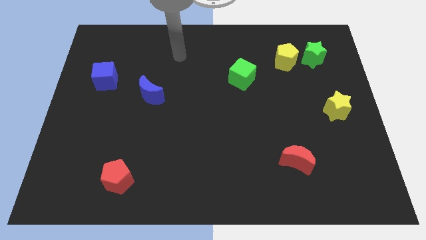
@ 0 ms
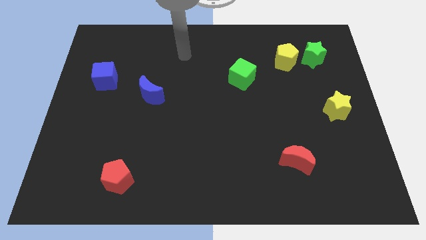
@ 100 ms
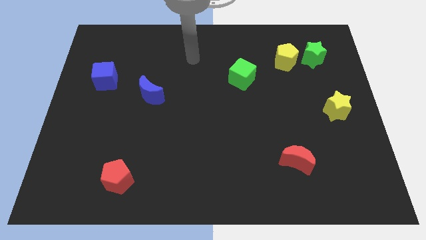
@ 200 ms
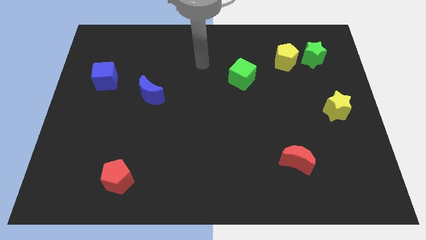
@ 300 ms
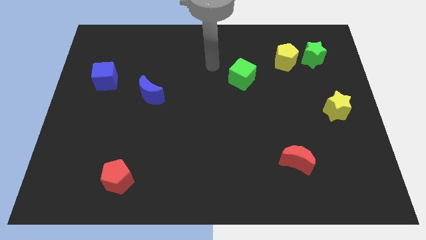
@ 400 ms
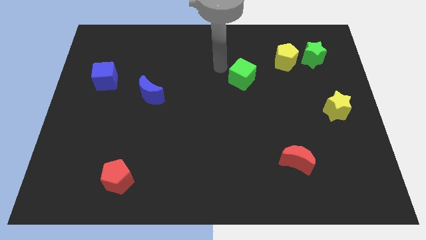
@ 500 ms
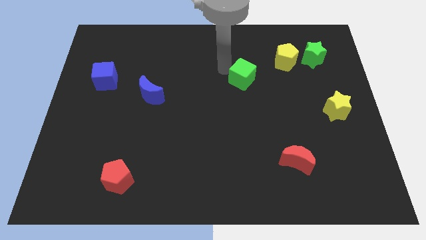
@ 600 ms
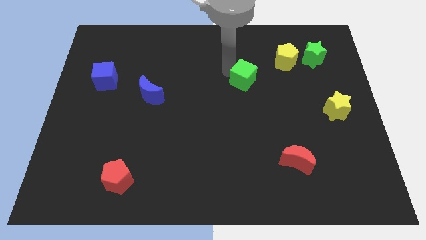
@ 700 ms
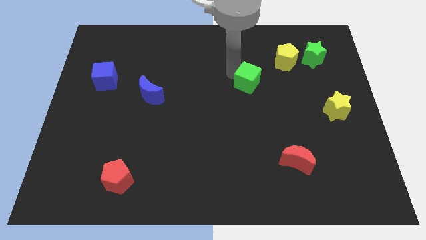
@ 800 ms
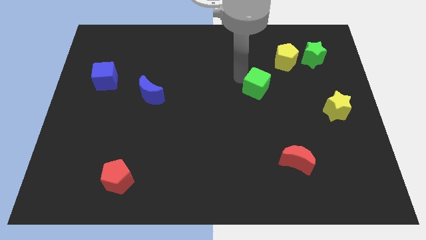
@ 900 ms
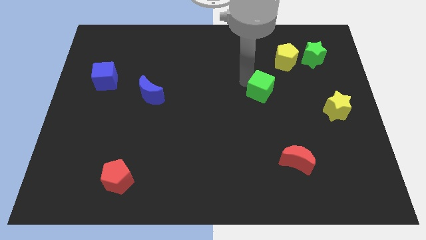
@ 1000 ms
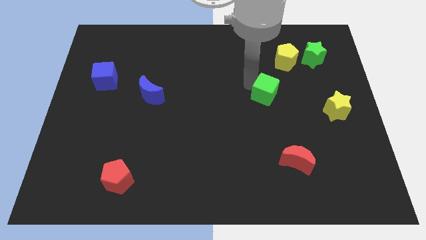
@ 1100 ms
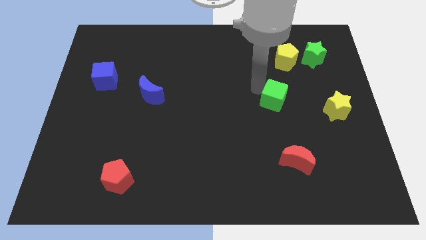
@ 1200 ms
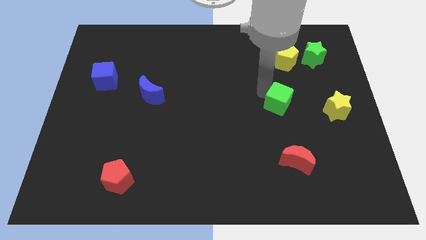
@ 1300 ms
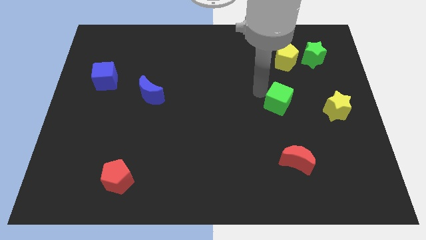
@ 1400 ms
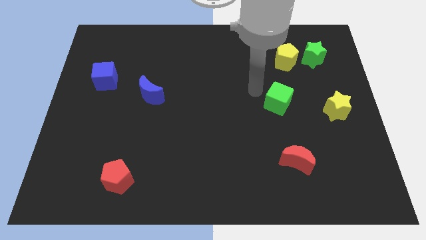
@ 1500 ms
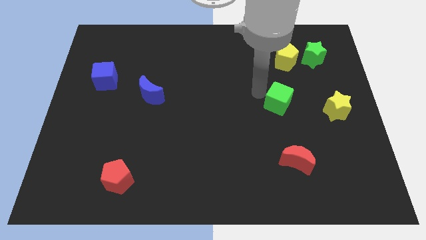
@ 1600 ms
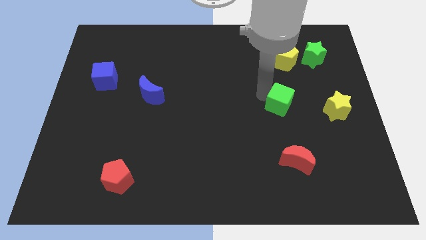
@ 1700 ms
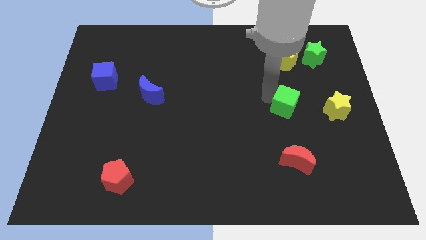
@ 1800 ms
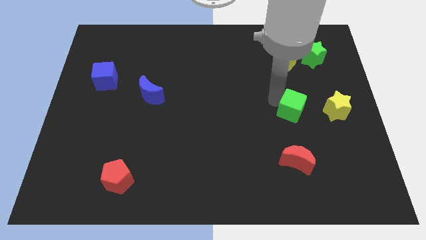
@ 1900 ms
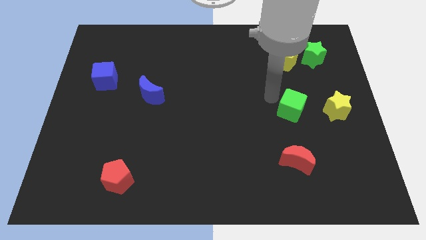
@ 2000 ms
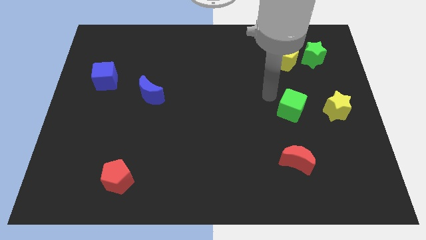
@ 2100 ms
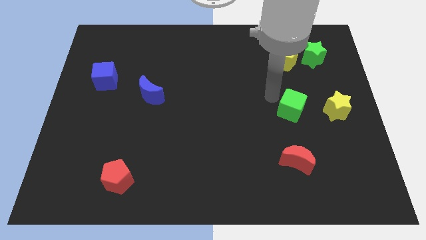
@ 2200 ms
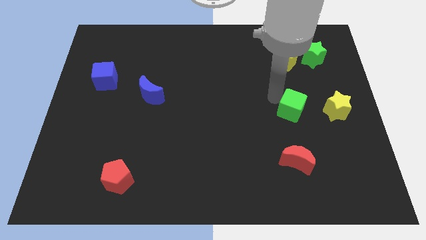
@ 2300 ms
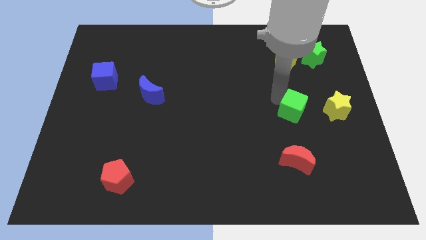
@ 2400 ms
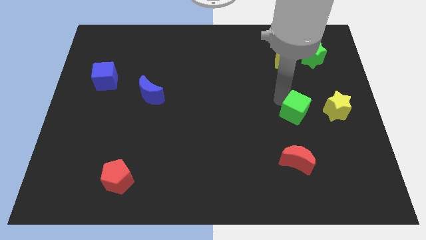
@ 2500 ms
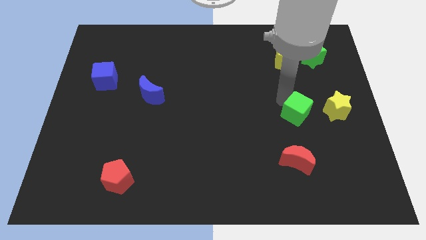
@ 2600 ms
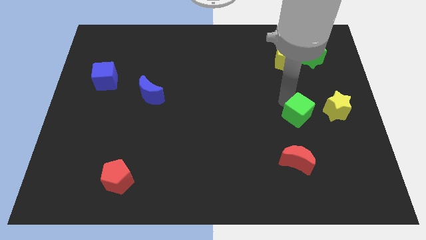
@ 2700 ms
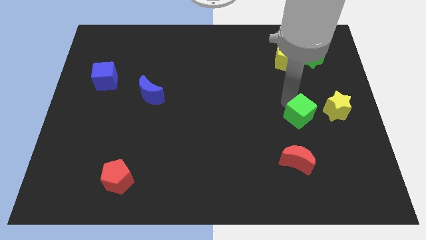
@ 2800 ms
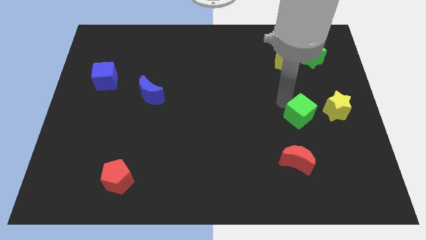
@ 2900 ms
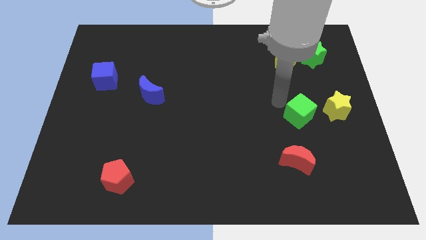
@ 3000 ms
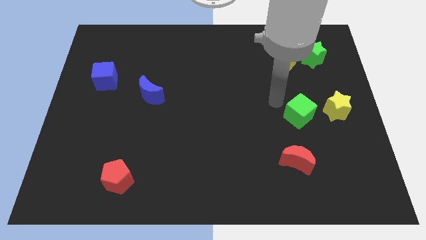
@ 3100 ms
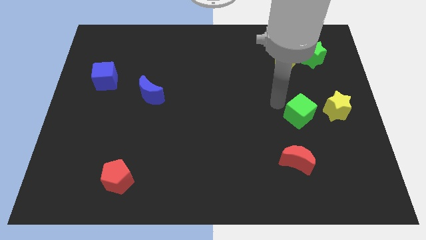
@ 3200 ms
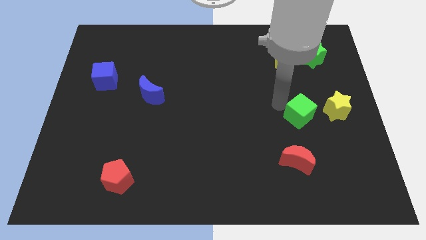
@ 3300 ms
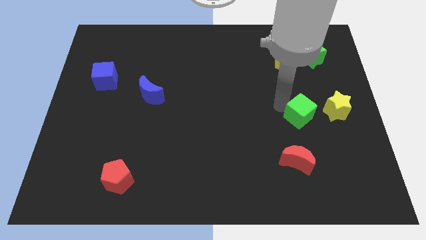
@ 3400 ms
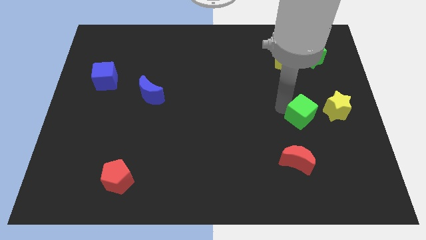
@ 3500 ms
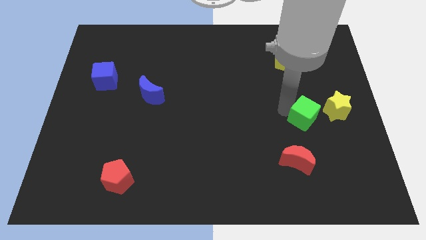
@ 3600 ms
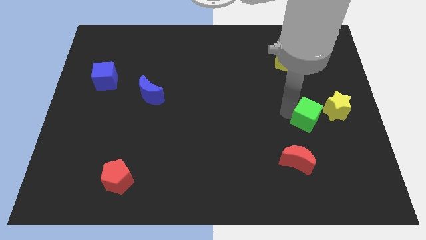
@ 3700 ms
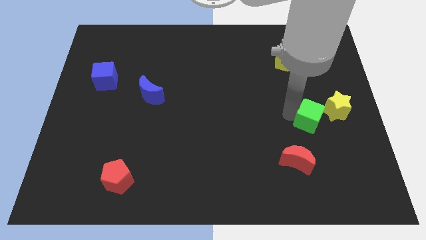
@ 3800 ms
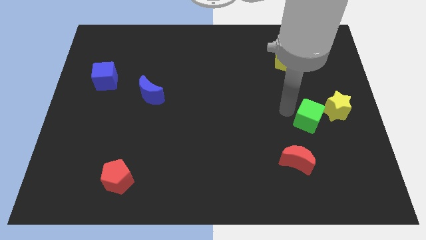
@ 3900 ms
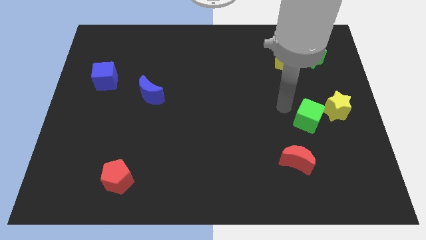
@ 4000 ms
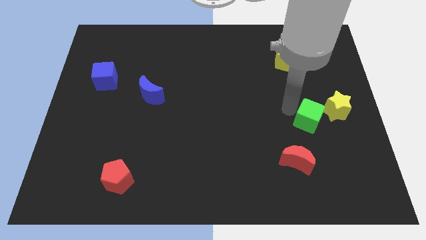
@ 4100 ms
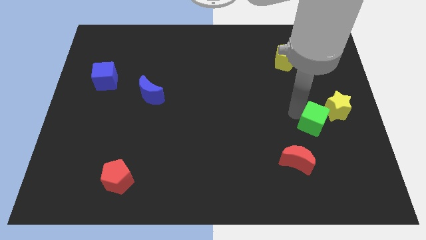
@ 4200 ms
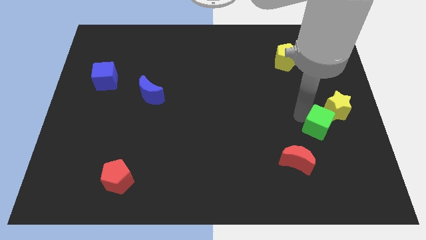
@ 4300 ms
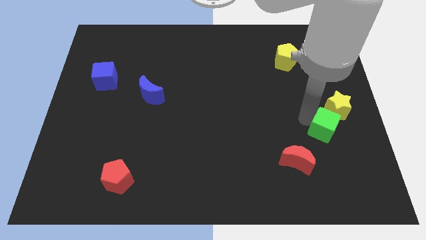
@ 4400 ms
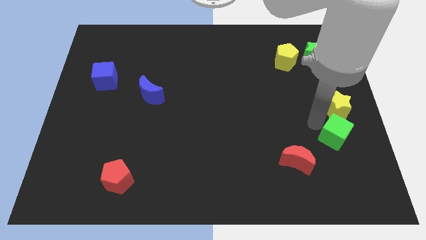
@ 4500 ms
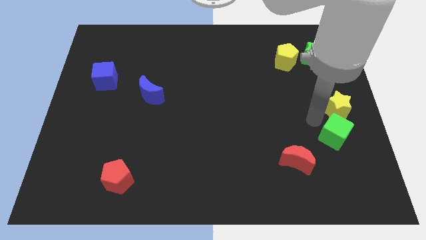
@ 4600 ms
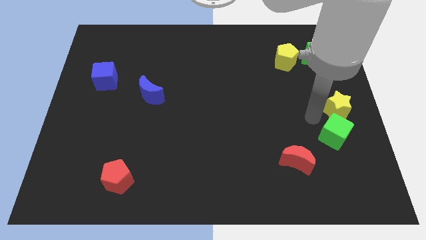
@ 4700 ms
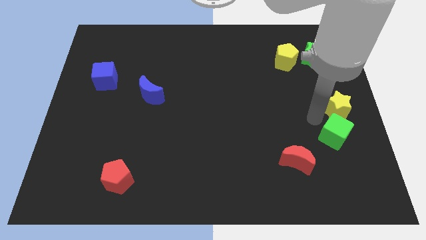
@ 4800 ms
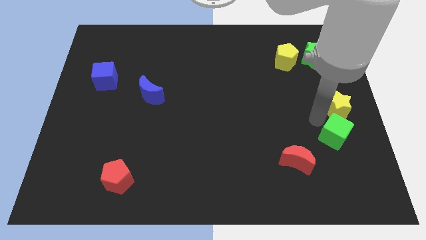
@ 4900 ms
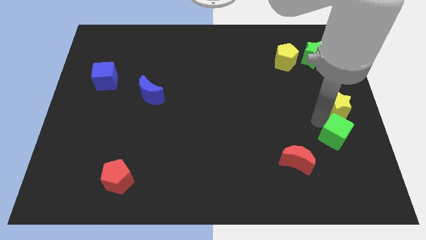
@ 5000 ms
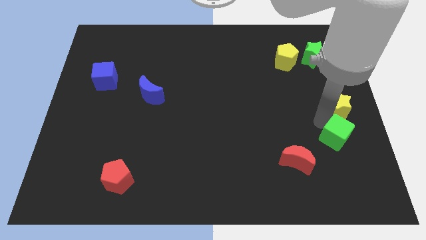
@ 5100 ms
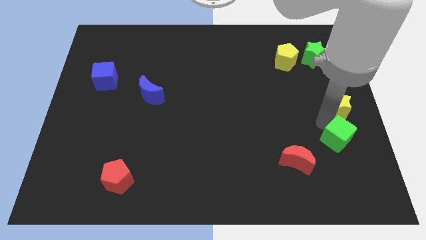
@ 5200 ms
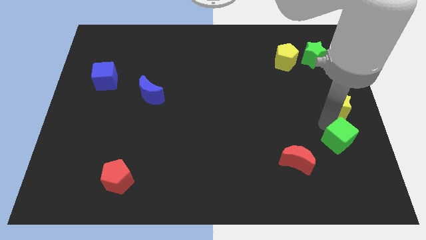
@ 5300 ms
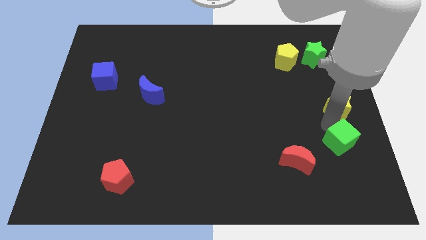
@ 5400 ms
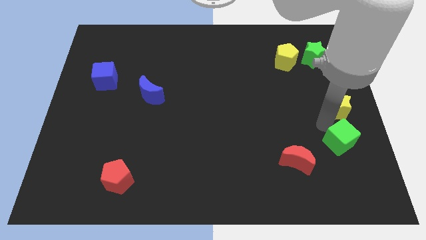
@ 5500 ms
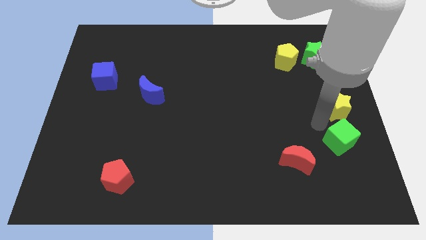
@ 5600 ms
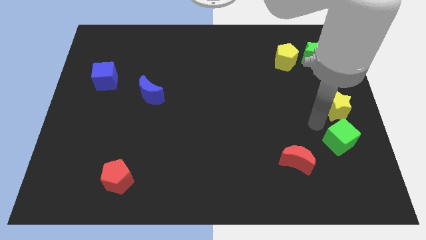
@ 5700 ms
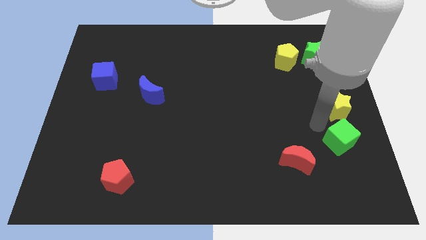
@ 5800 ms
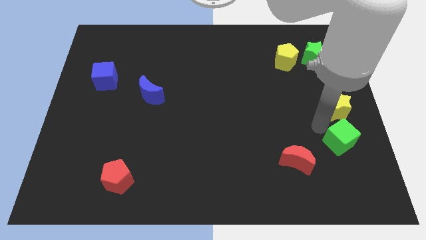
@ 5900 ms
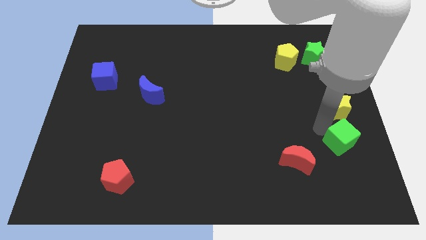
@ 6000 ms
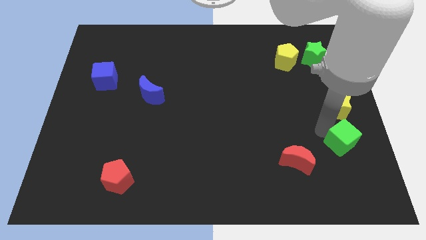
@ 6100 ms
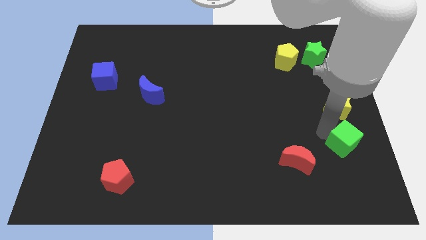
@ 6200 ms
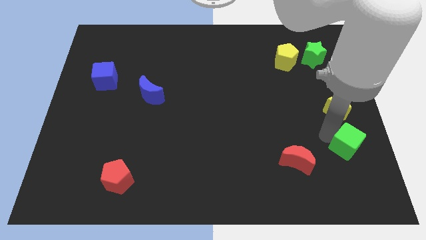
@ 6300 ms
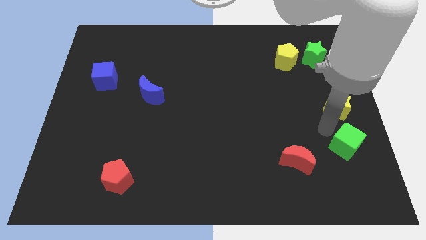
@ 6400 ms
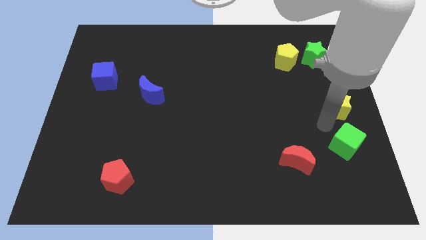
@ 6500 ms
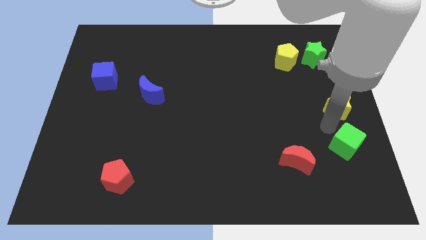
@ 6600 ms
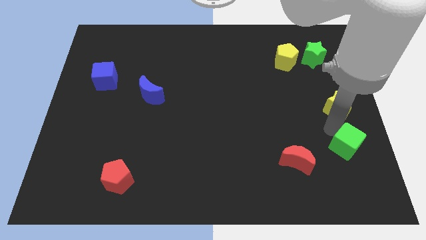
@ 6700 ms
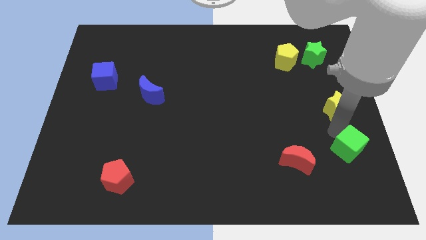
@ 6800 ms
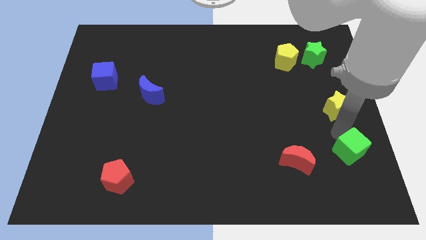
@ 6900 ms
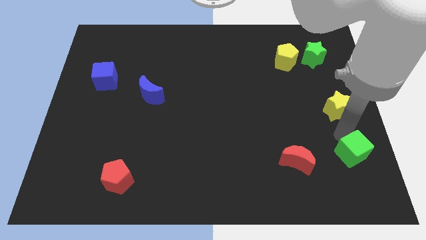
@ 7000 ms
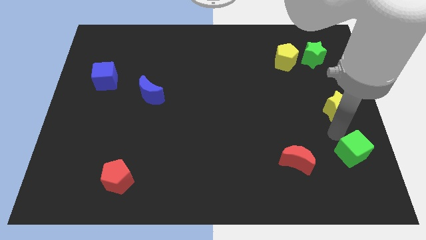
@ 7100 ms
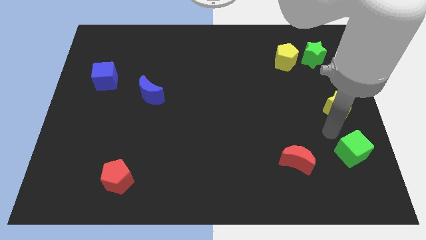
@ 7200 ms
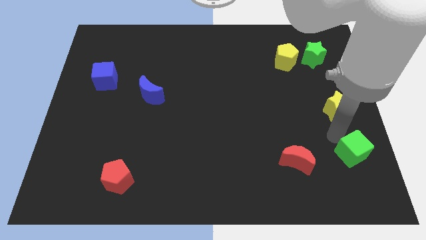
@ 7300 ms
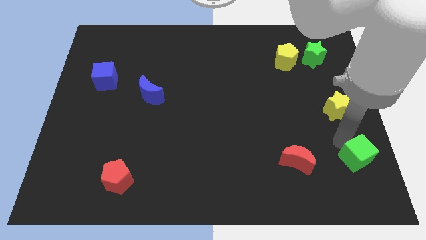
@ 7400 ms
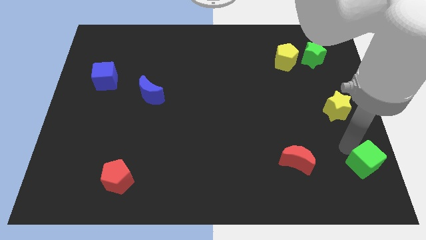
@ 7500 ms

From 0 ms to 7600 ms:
push the green cube to the bottom right of the board
